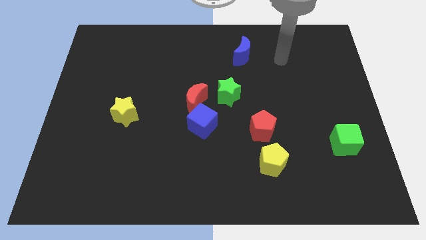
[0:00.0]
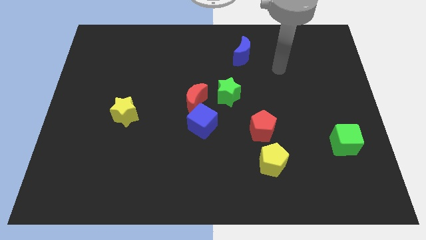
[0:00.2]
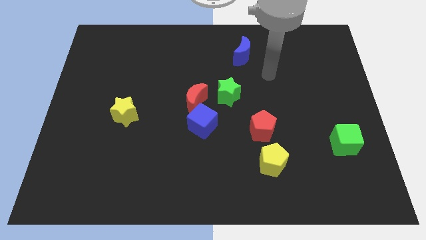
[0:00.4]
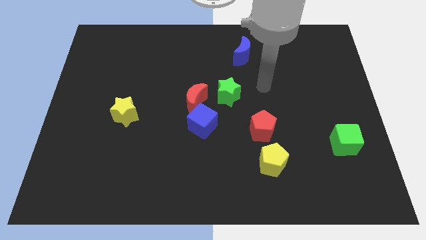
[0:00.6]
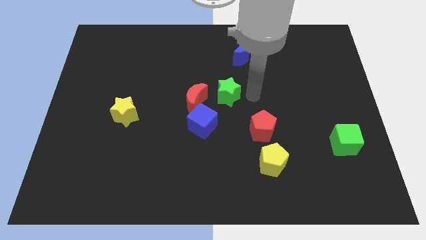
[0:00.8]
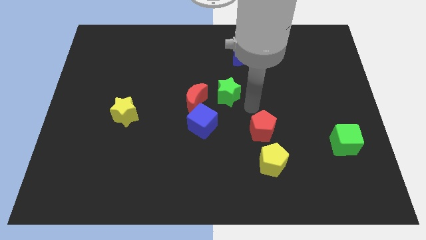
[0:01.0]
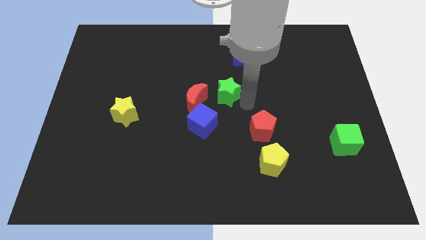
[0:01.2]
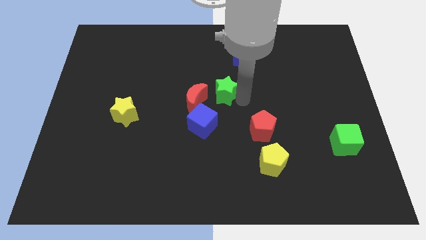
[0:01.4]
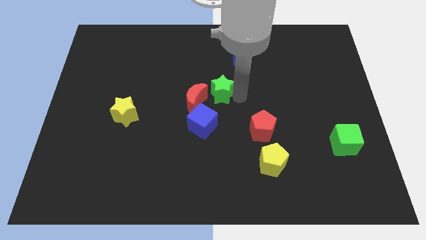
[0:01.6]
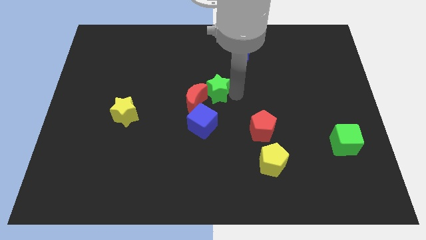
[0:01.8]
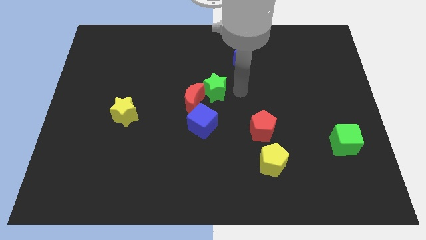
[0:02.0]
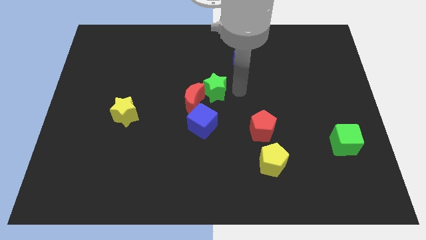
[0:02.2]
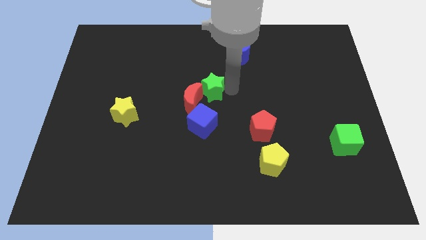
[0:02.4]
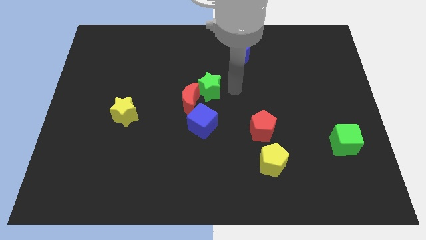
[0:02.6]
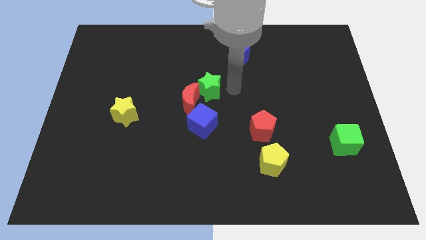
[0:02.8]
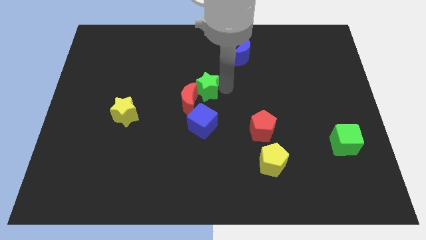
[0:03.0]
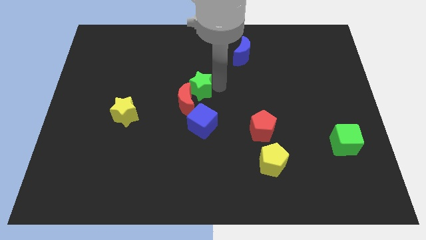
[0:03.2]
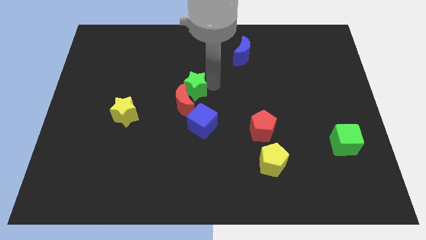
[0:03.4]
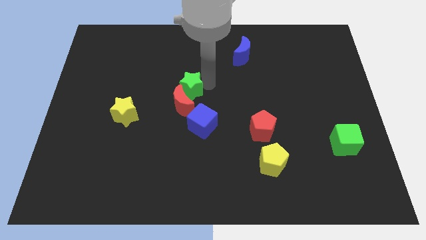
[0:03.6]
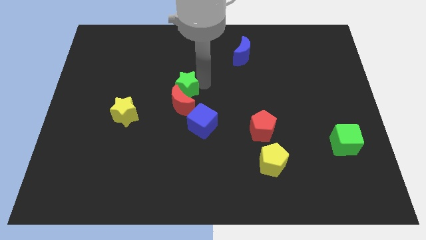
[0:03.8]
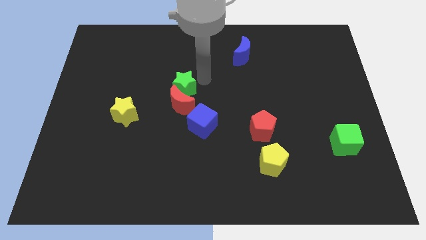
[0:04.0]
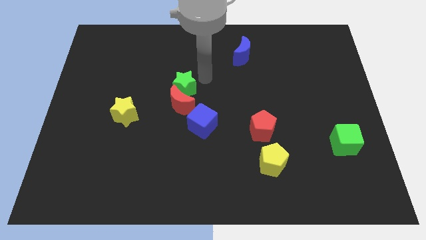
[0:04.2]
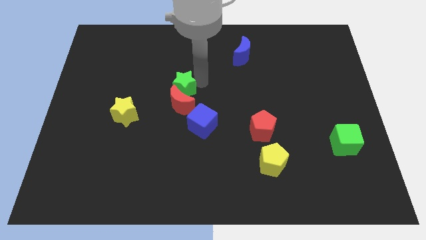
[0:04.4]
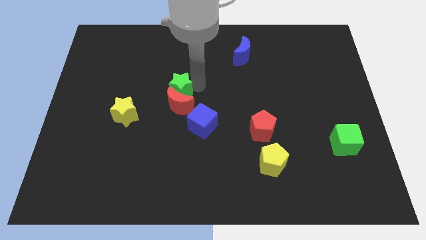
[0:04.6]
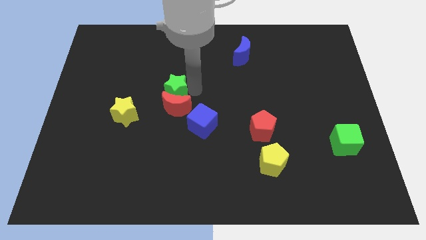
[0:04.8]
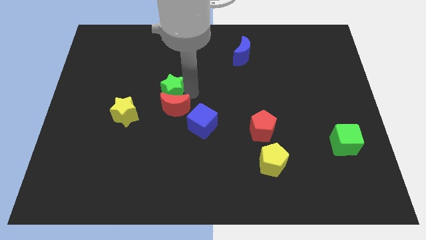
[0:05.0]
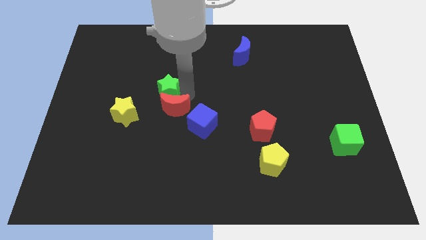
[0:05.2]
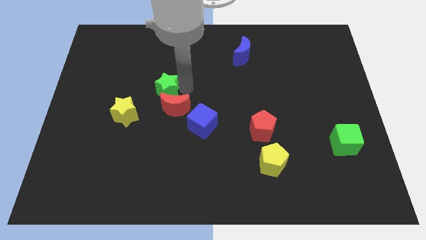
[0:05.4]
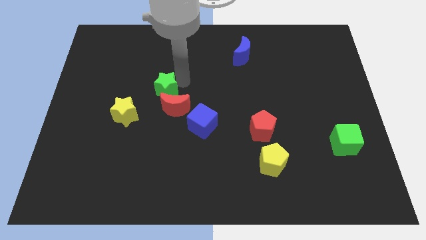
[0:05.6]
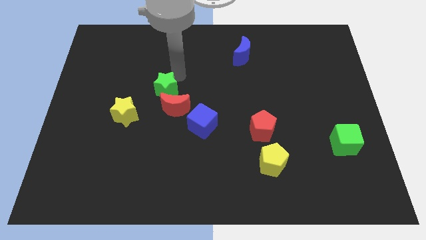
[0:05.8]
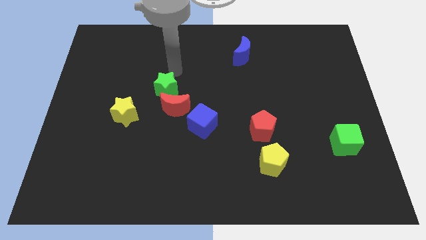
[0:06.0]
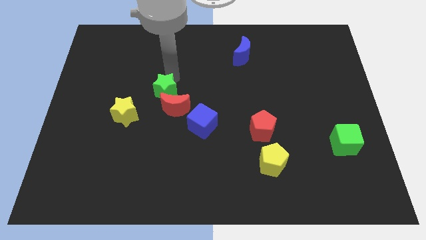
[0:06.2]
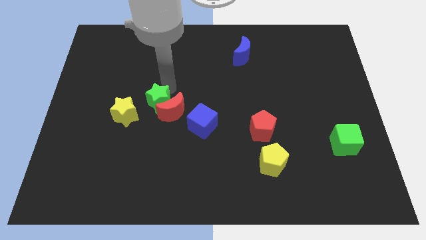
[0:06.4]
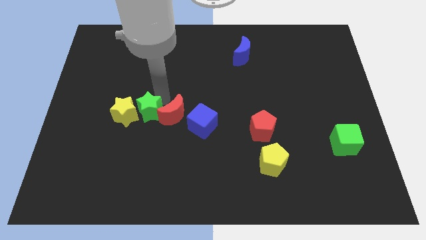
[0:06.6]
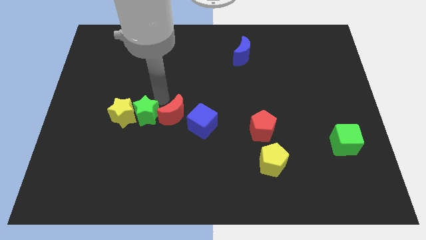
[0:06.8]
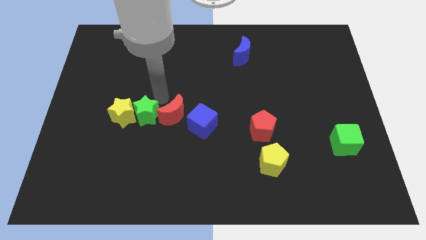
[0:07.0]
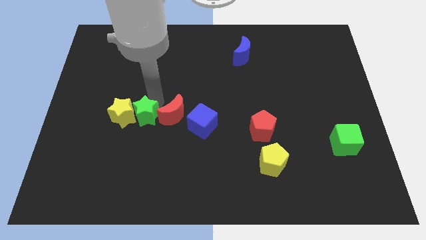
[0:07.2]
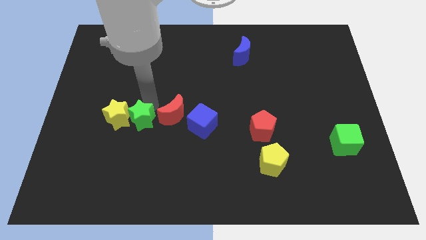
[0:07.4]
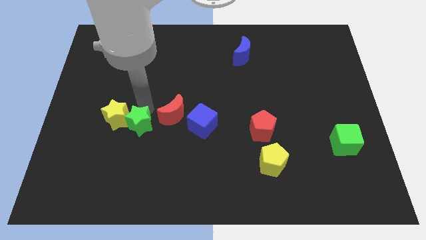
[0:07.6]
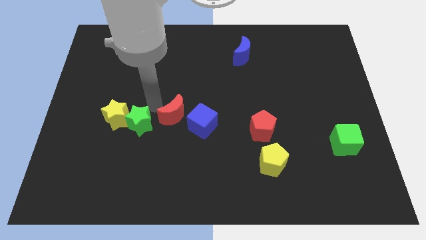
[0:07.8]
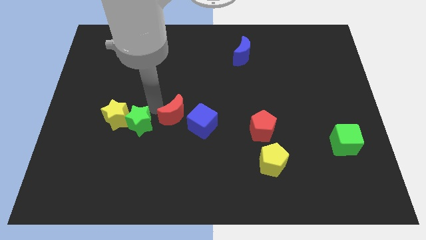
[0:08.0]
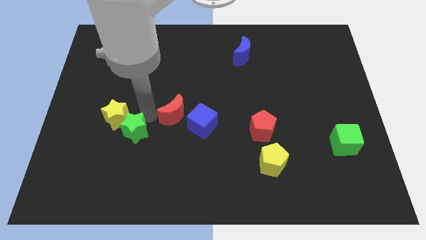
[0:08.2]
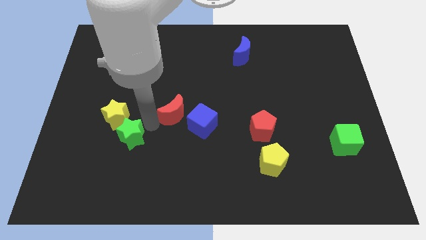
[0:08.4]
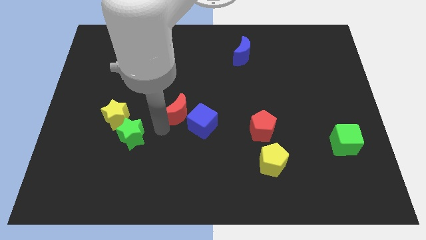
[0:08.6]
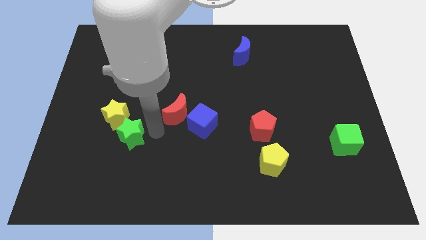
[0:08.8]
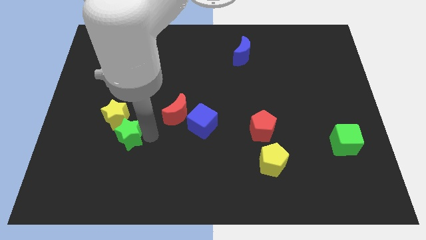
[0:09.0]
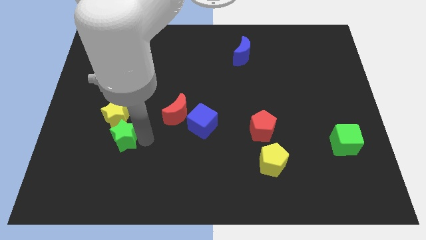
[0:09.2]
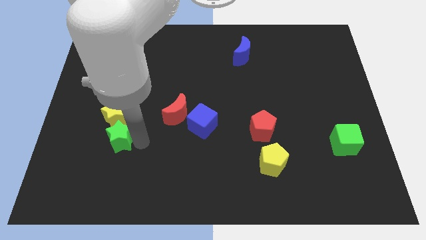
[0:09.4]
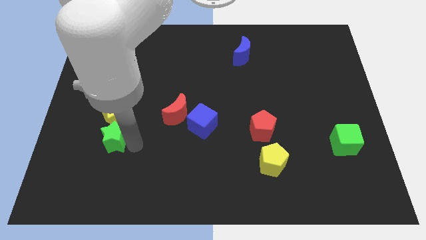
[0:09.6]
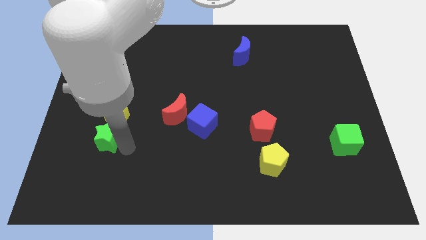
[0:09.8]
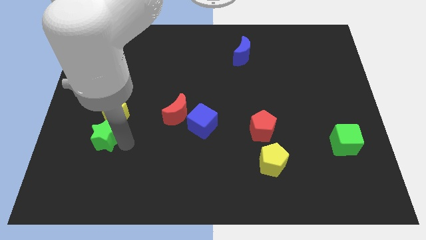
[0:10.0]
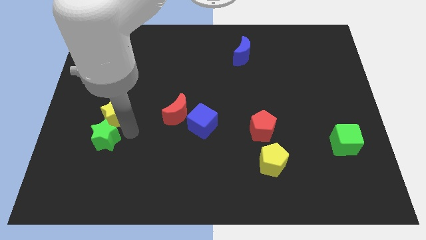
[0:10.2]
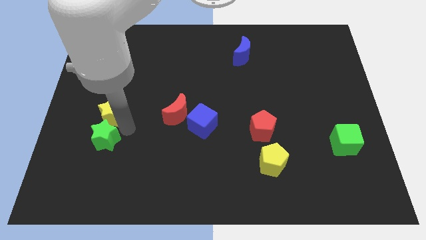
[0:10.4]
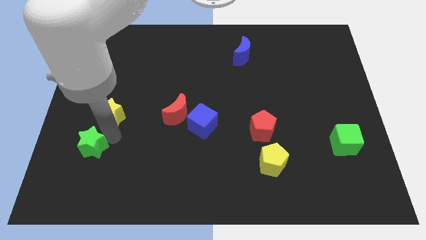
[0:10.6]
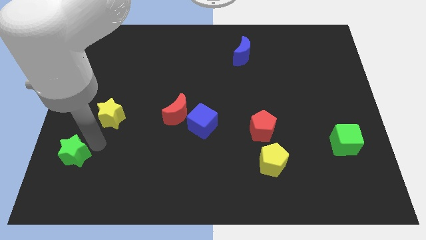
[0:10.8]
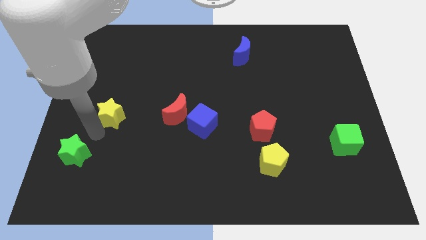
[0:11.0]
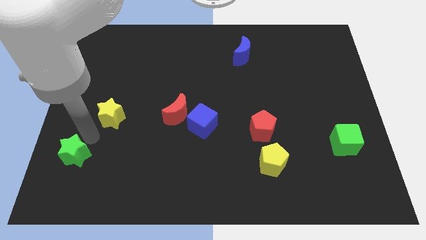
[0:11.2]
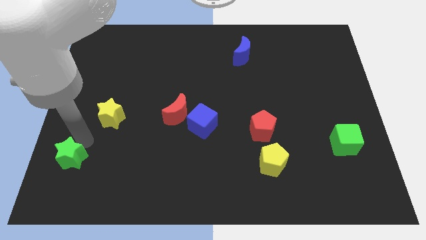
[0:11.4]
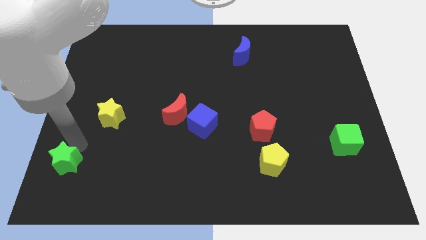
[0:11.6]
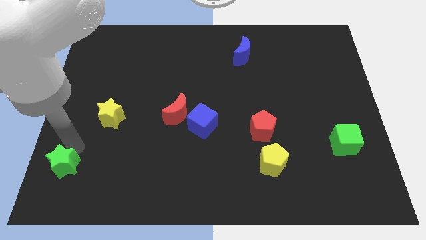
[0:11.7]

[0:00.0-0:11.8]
put the green star to the bottom left of the board

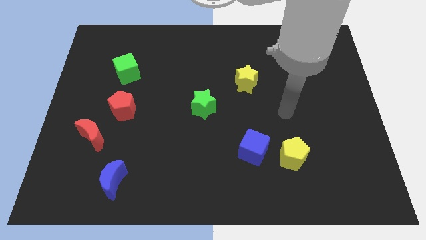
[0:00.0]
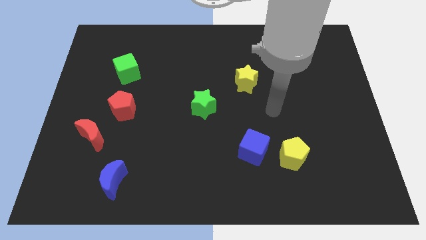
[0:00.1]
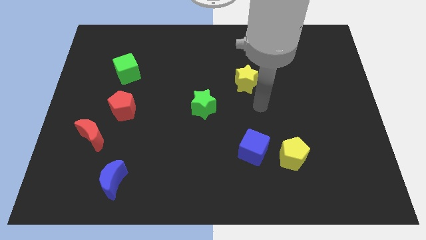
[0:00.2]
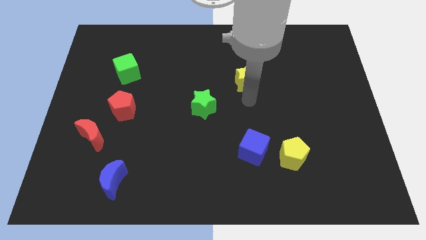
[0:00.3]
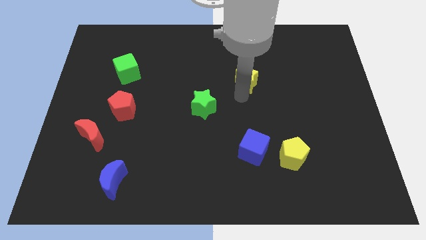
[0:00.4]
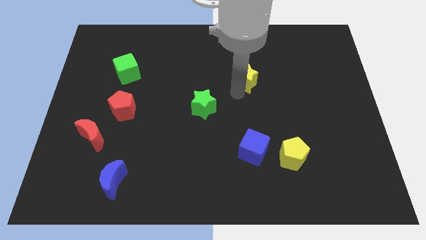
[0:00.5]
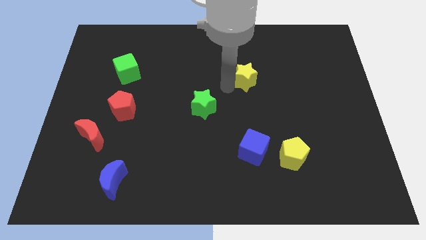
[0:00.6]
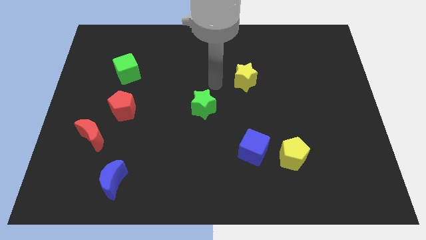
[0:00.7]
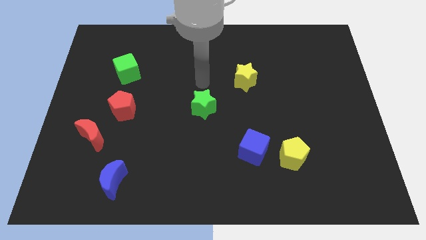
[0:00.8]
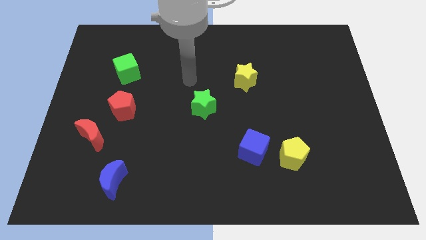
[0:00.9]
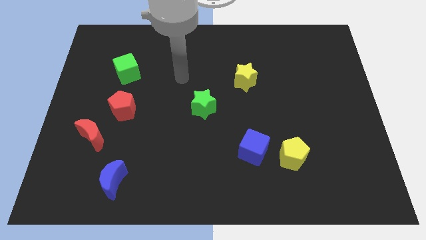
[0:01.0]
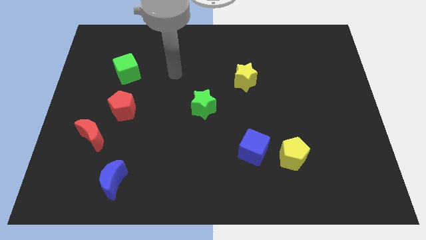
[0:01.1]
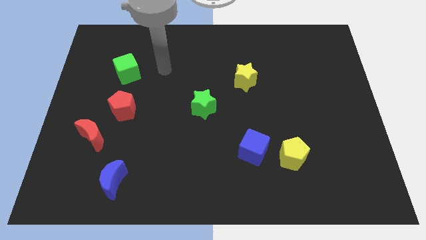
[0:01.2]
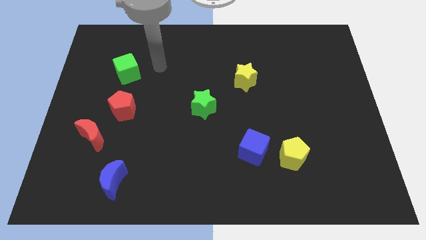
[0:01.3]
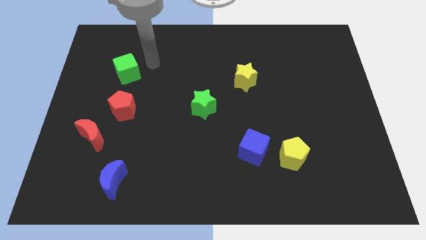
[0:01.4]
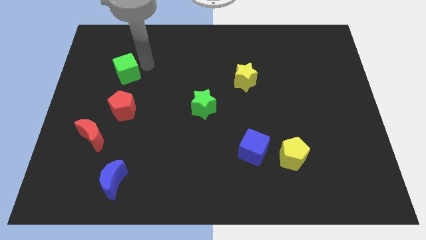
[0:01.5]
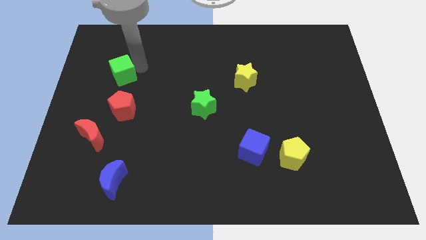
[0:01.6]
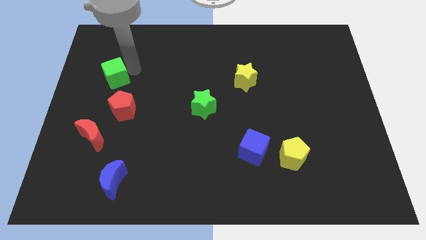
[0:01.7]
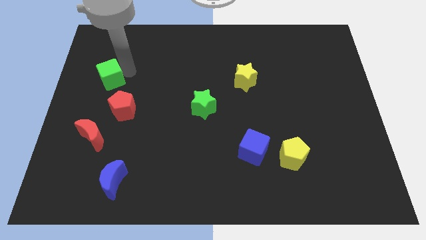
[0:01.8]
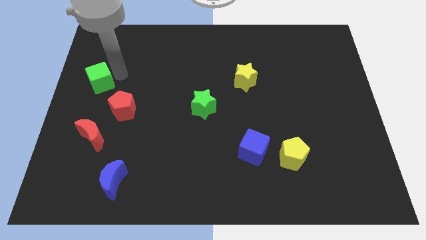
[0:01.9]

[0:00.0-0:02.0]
move the green cube to the left side
